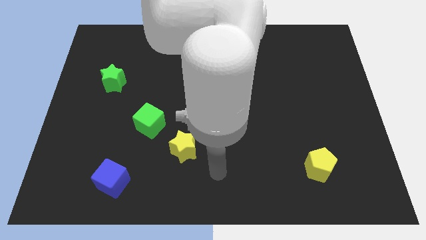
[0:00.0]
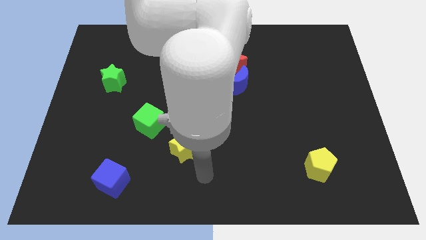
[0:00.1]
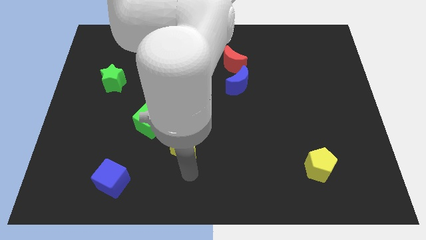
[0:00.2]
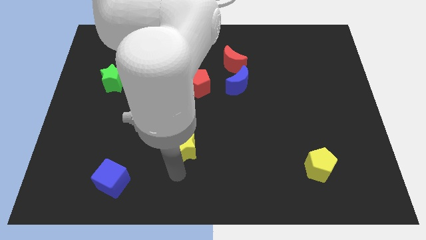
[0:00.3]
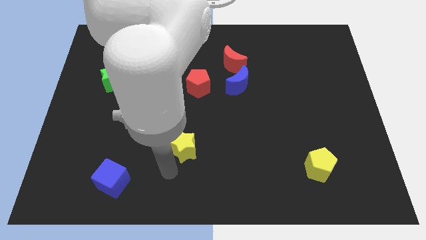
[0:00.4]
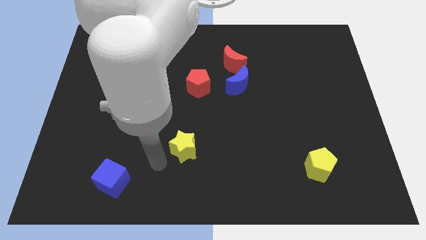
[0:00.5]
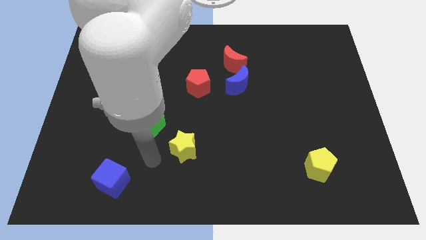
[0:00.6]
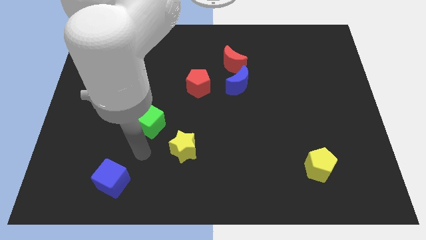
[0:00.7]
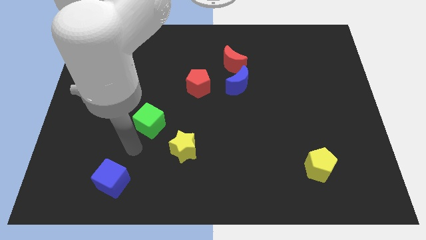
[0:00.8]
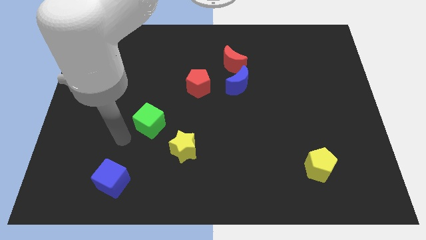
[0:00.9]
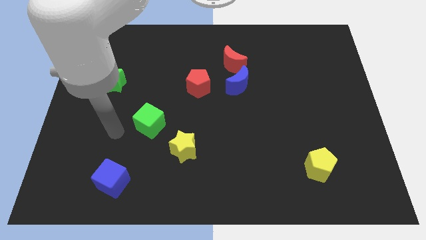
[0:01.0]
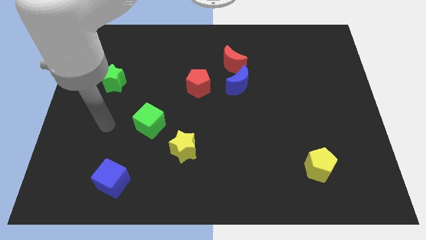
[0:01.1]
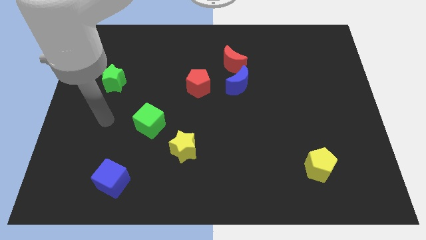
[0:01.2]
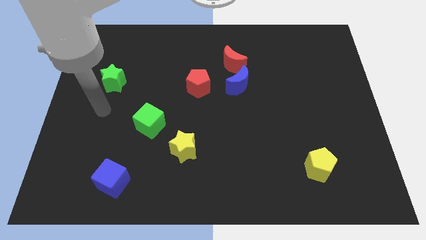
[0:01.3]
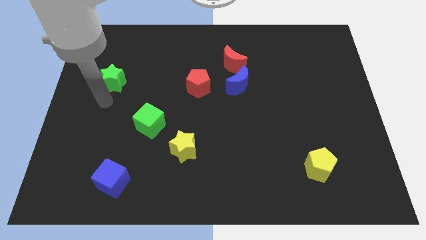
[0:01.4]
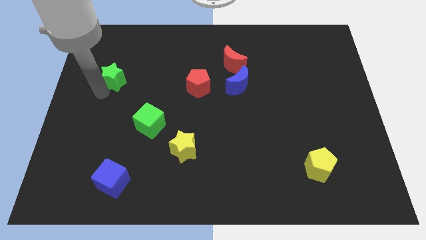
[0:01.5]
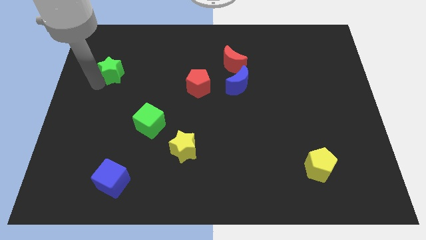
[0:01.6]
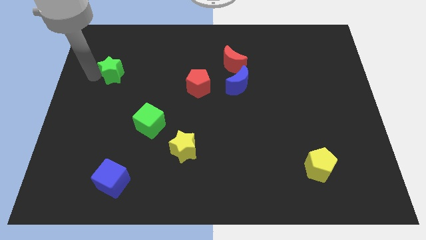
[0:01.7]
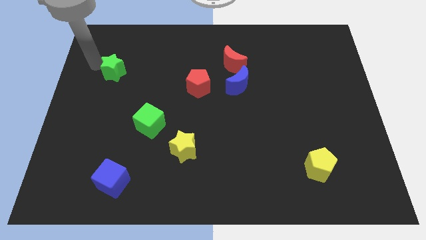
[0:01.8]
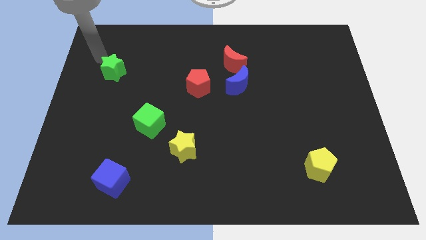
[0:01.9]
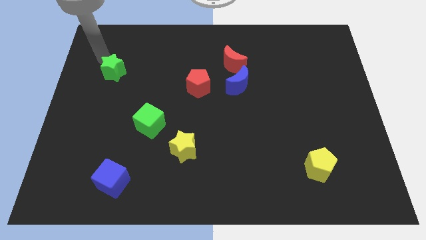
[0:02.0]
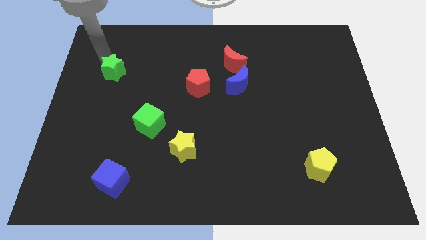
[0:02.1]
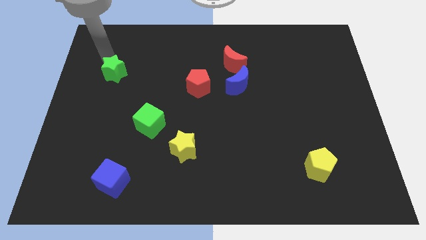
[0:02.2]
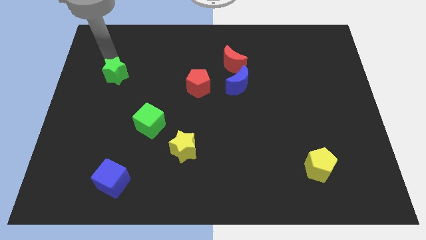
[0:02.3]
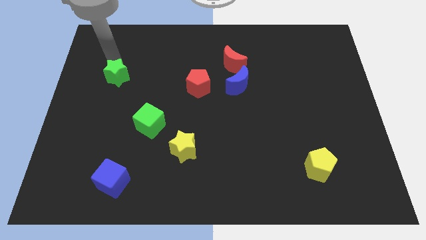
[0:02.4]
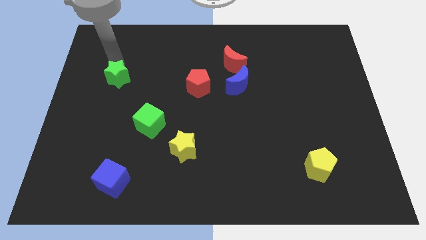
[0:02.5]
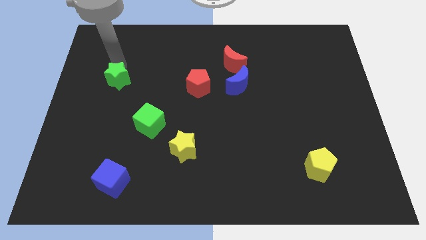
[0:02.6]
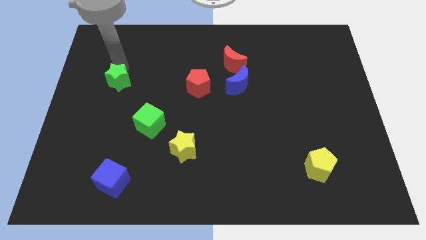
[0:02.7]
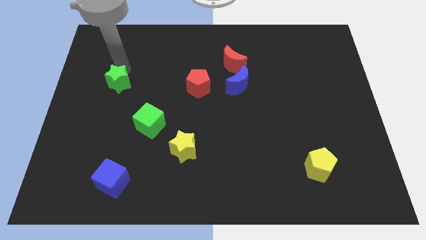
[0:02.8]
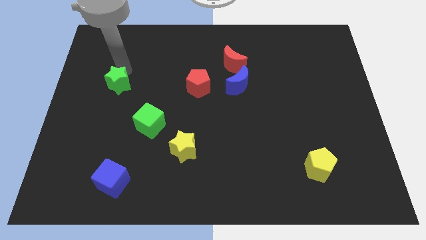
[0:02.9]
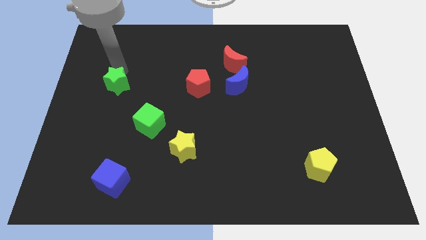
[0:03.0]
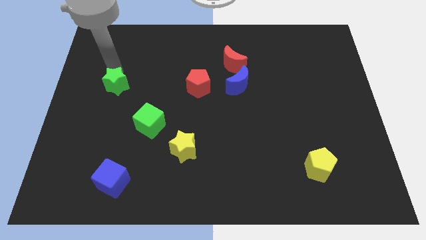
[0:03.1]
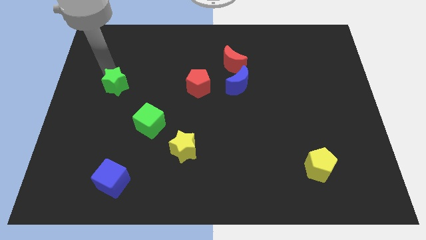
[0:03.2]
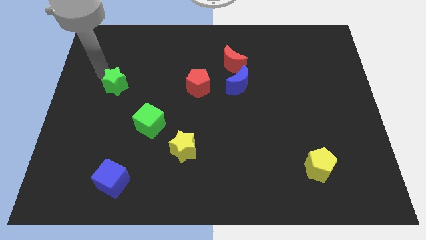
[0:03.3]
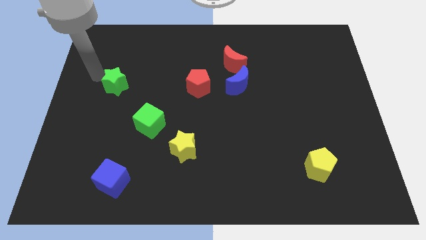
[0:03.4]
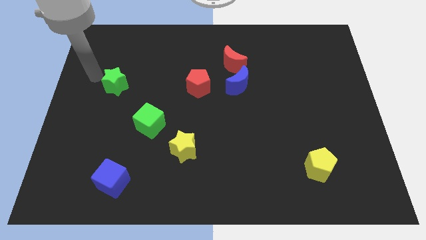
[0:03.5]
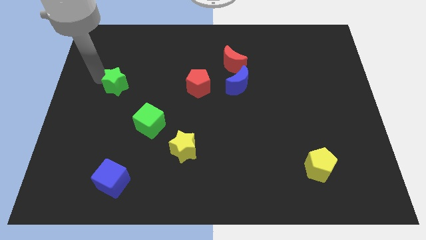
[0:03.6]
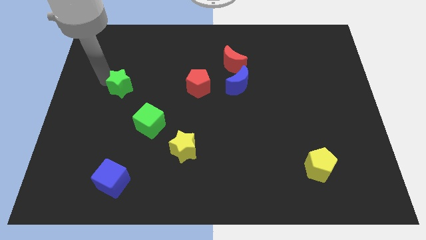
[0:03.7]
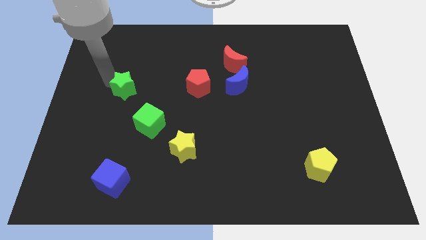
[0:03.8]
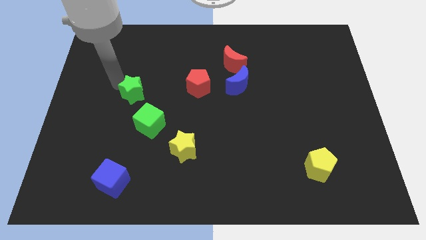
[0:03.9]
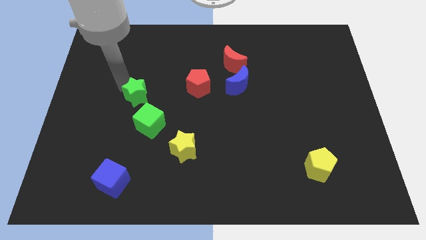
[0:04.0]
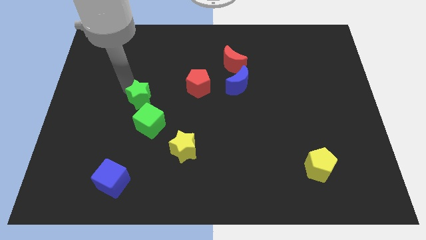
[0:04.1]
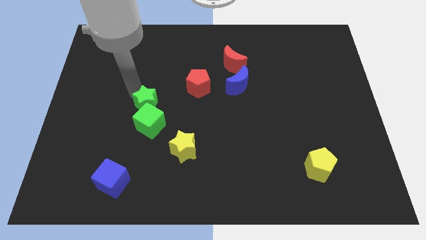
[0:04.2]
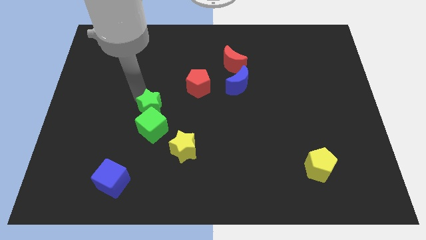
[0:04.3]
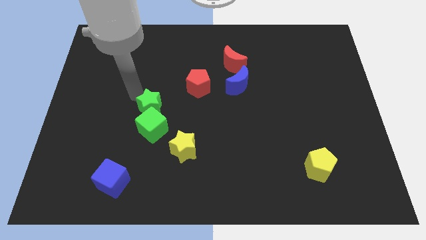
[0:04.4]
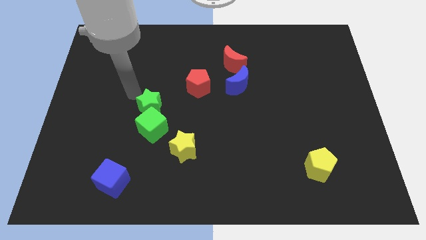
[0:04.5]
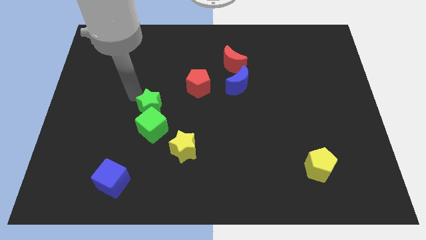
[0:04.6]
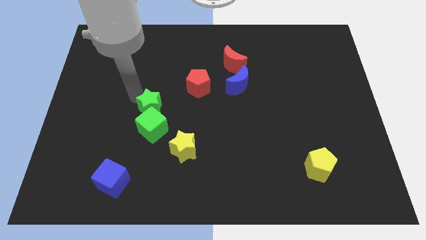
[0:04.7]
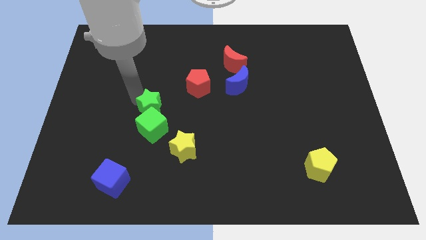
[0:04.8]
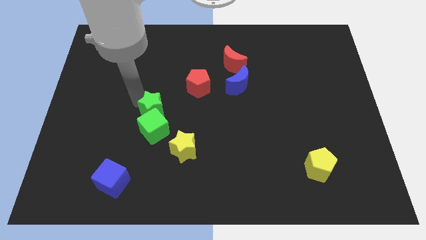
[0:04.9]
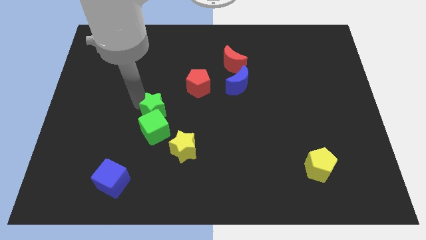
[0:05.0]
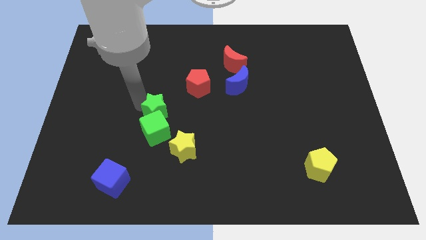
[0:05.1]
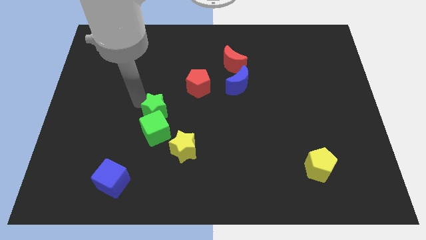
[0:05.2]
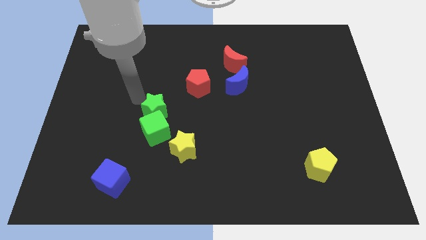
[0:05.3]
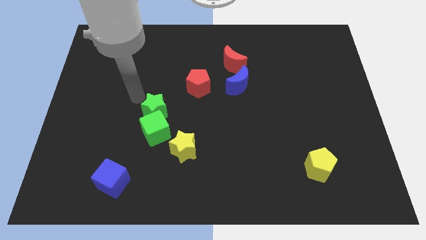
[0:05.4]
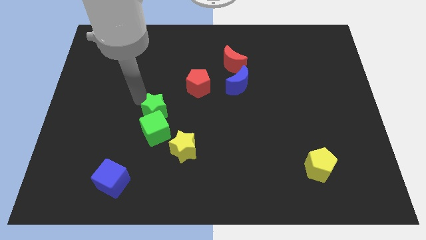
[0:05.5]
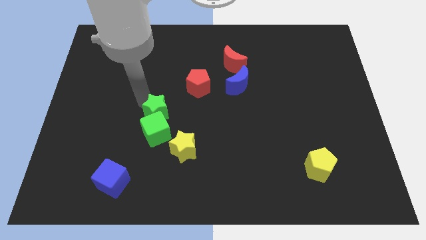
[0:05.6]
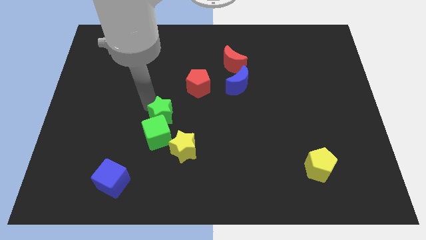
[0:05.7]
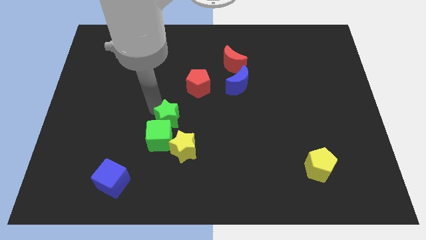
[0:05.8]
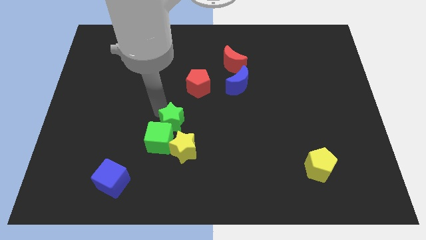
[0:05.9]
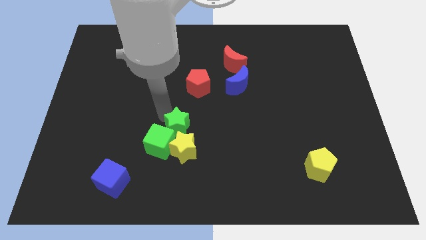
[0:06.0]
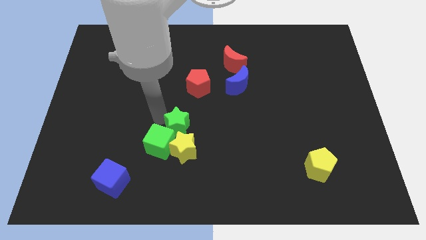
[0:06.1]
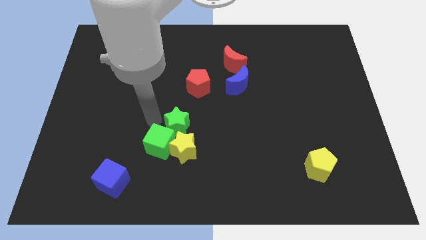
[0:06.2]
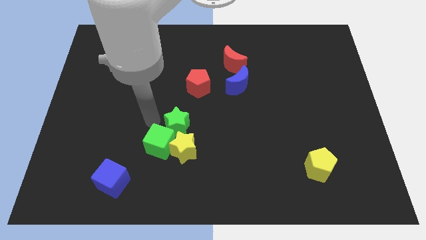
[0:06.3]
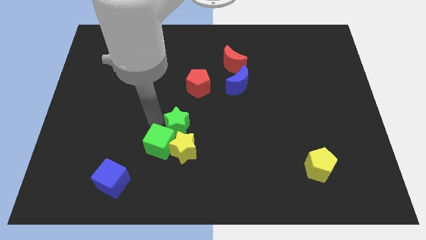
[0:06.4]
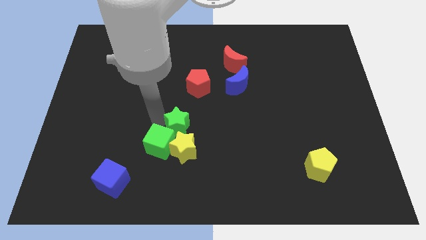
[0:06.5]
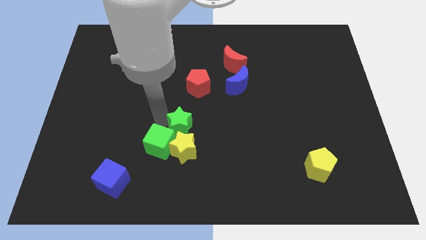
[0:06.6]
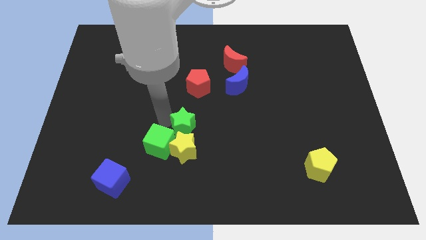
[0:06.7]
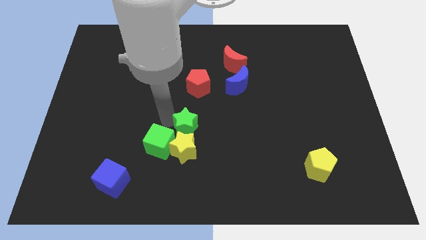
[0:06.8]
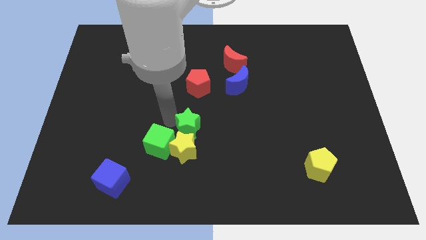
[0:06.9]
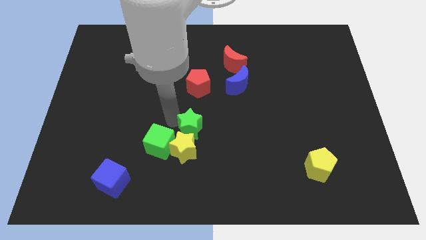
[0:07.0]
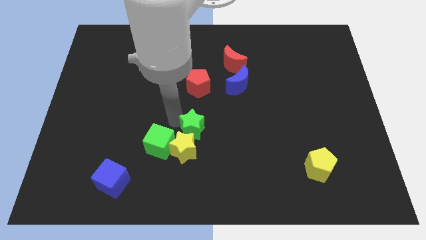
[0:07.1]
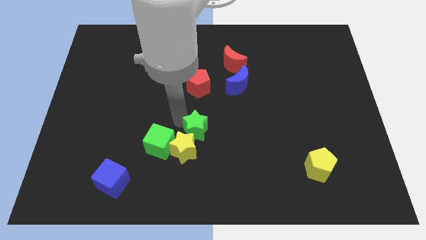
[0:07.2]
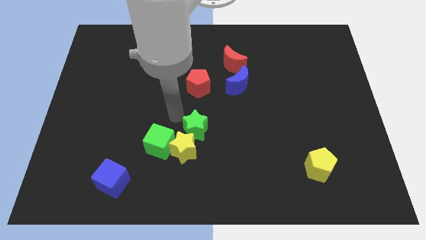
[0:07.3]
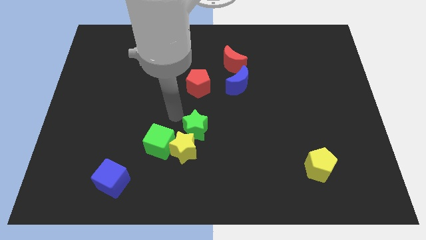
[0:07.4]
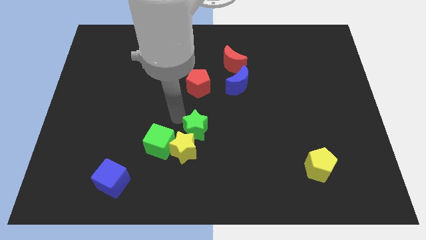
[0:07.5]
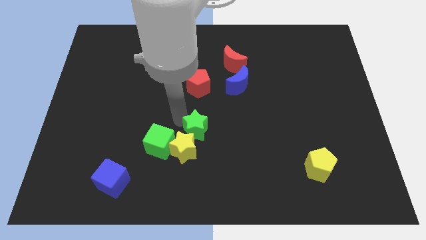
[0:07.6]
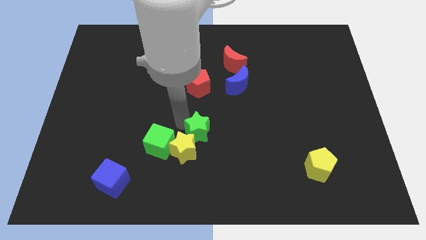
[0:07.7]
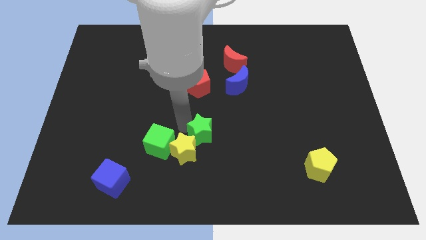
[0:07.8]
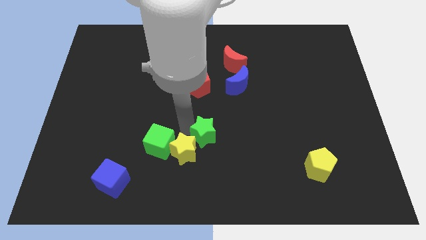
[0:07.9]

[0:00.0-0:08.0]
push the green star to the right of the yellow star
